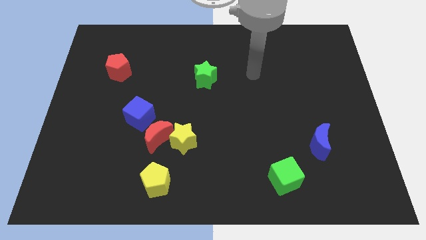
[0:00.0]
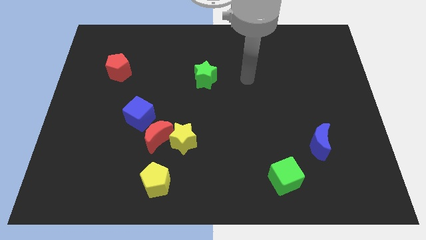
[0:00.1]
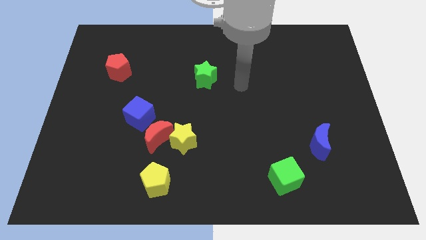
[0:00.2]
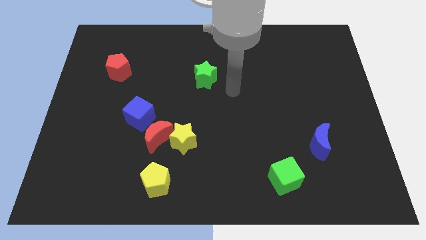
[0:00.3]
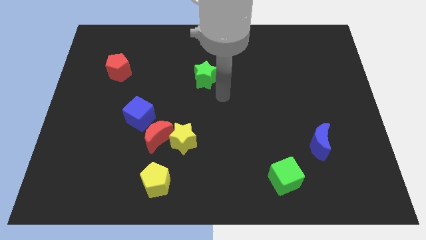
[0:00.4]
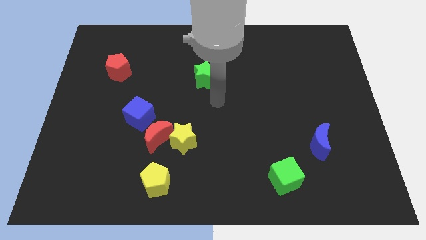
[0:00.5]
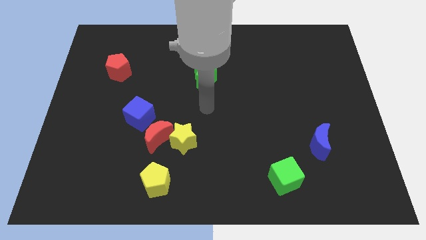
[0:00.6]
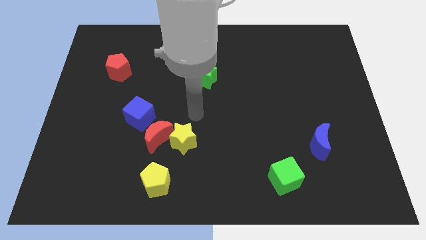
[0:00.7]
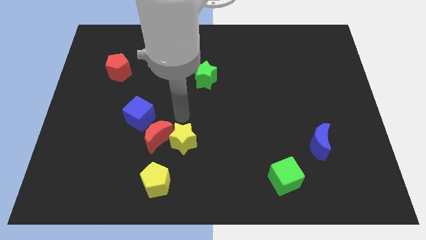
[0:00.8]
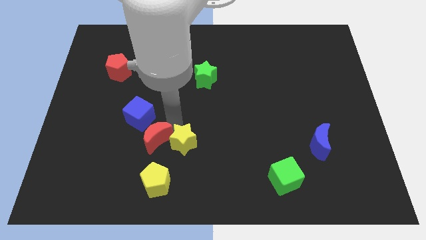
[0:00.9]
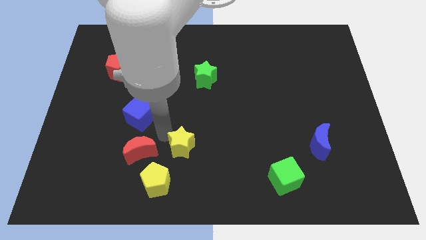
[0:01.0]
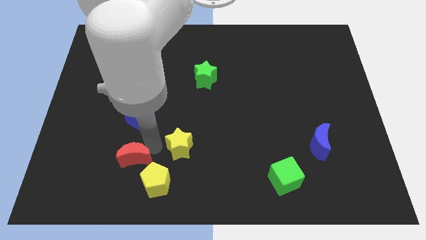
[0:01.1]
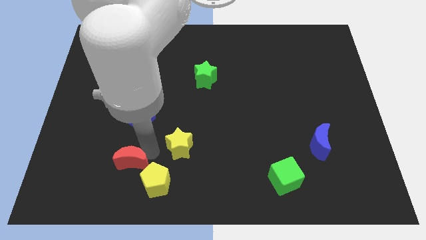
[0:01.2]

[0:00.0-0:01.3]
move the yellow star away from the red moon

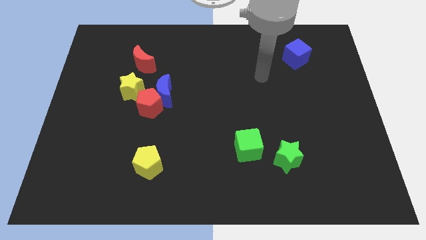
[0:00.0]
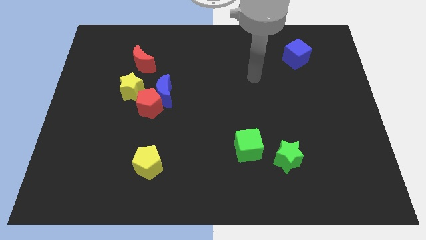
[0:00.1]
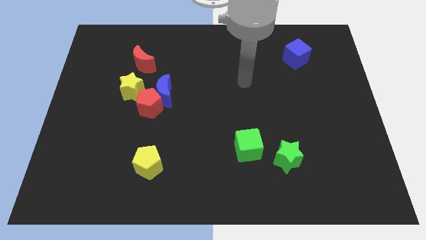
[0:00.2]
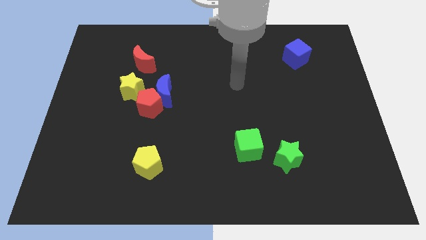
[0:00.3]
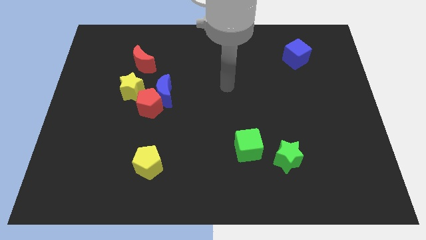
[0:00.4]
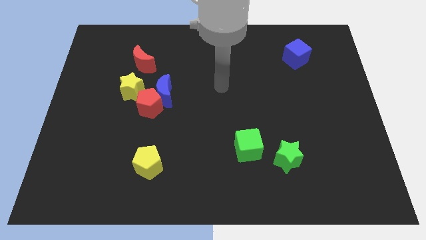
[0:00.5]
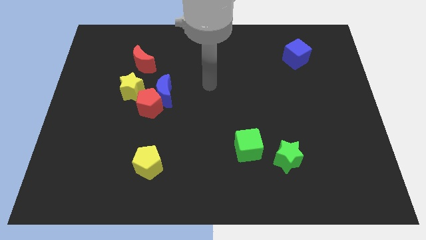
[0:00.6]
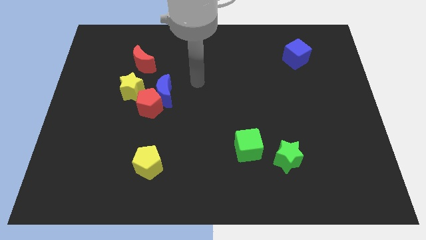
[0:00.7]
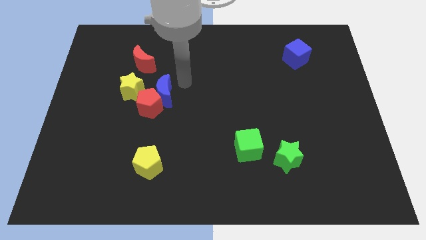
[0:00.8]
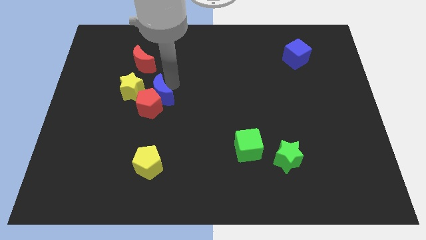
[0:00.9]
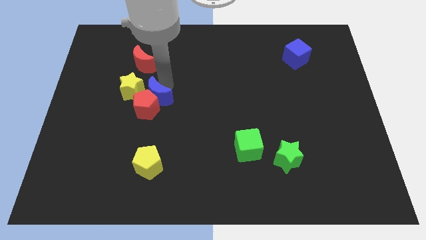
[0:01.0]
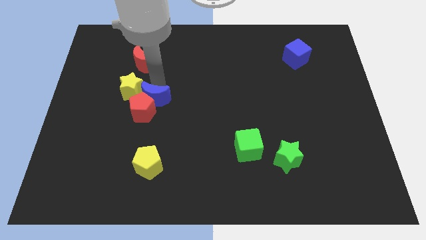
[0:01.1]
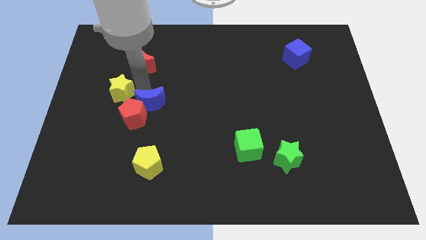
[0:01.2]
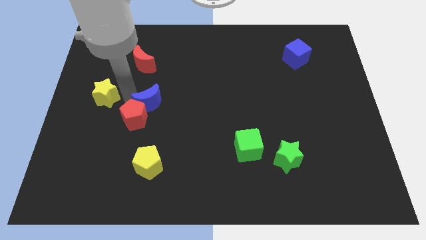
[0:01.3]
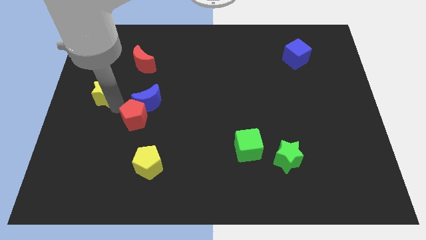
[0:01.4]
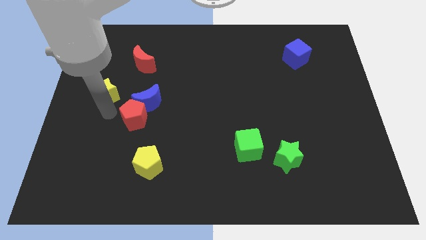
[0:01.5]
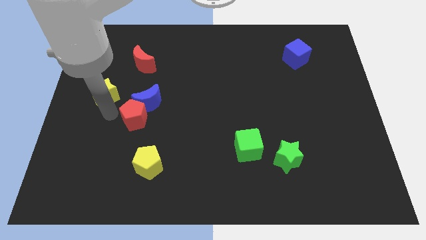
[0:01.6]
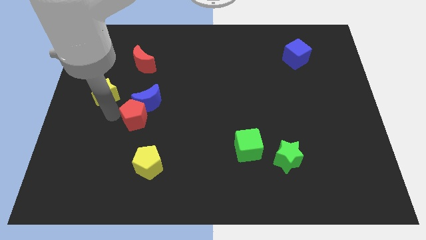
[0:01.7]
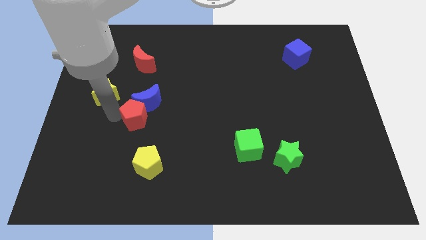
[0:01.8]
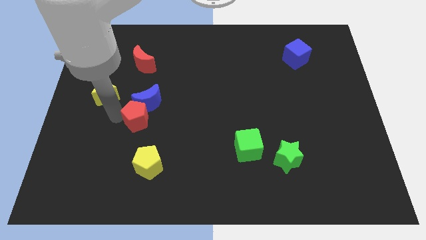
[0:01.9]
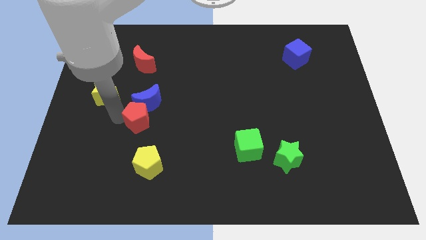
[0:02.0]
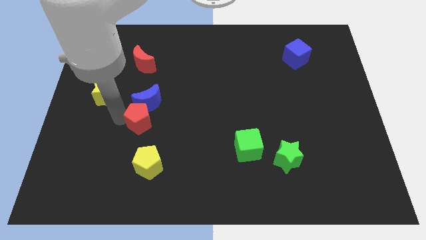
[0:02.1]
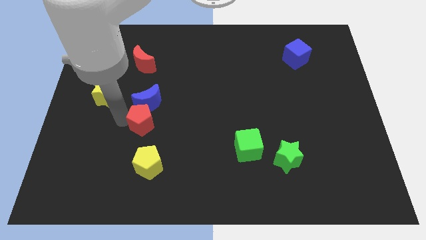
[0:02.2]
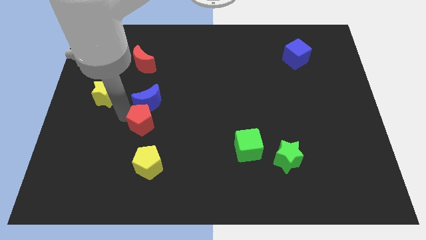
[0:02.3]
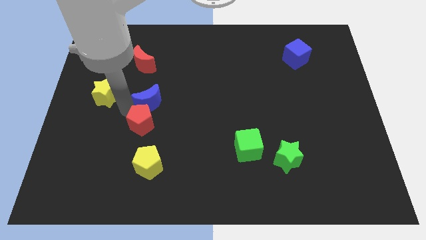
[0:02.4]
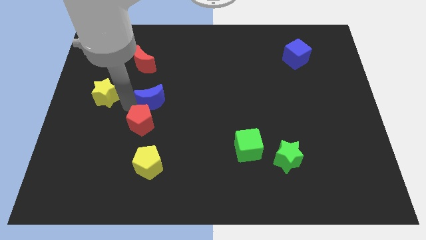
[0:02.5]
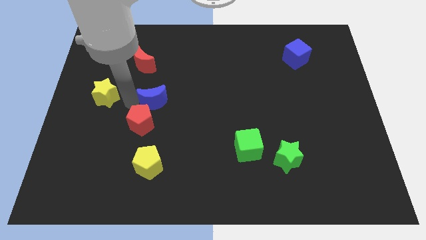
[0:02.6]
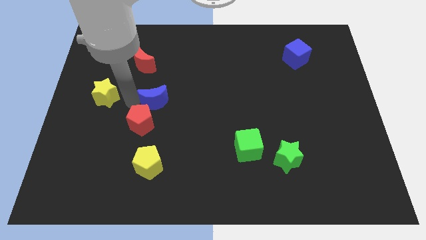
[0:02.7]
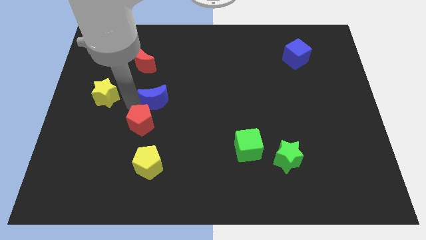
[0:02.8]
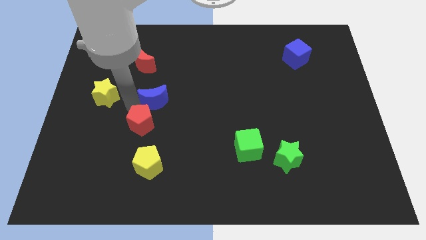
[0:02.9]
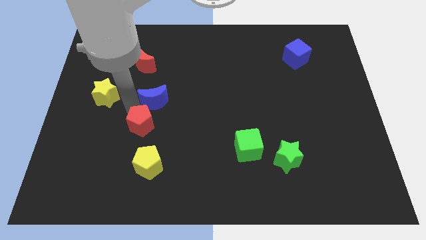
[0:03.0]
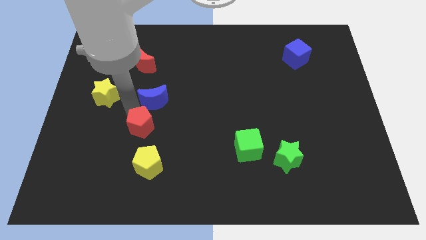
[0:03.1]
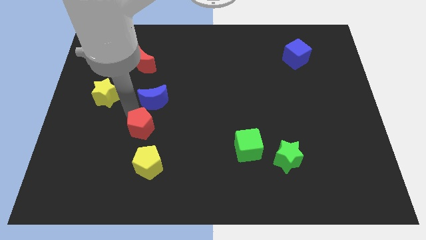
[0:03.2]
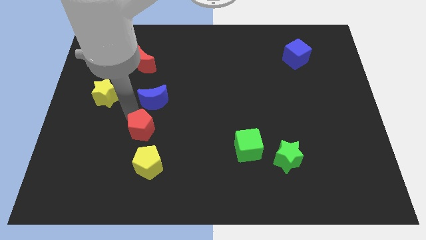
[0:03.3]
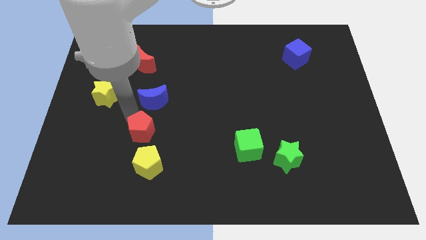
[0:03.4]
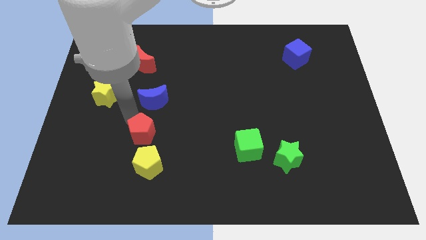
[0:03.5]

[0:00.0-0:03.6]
pull the red pentagon apart from the blue moon and yellow star

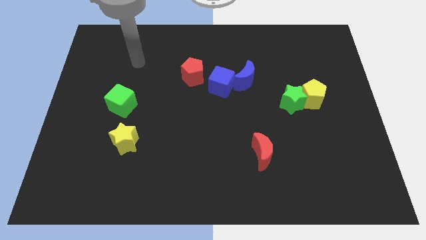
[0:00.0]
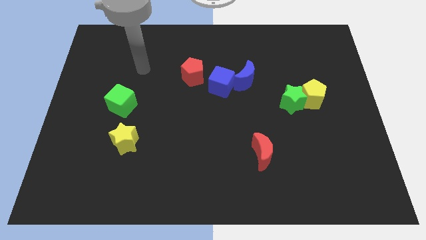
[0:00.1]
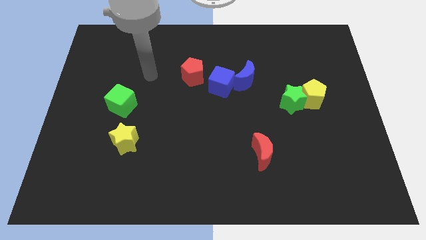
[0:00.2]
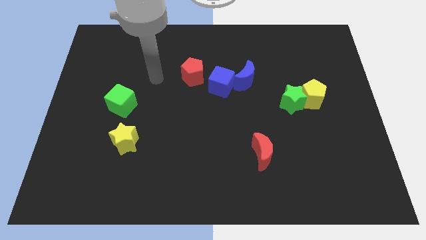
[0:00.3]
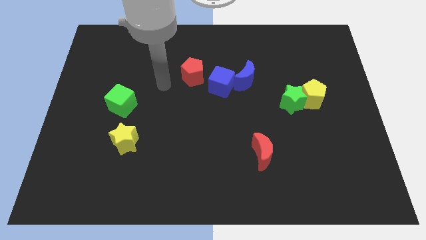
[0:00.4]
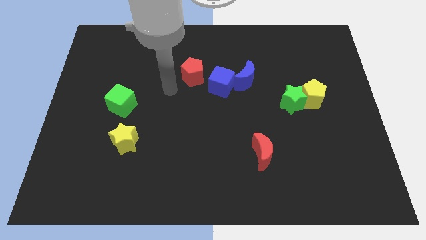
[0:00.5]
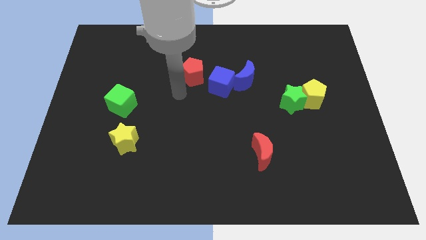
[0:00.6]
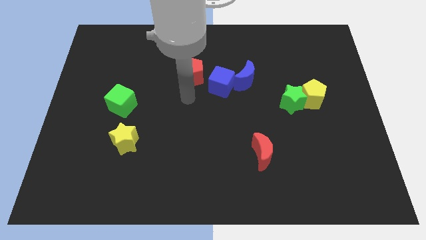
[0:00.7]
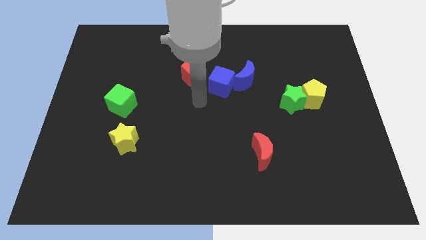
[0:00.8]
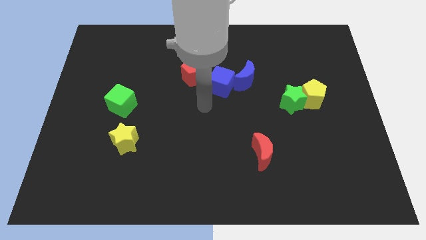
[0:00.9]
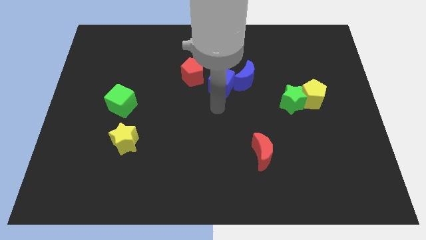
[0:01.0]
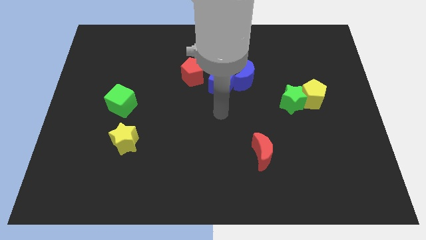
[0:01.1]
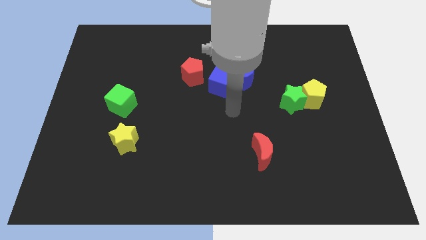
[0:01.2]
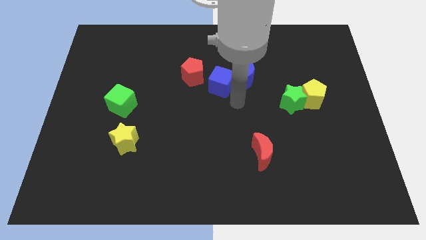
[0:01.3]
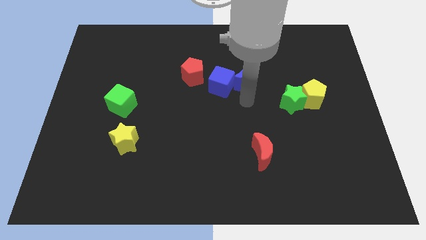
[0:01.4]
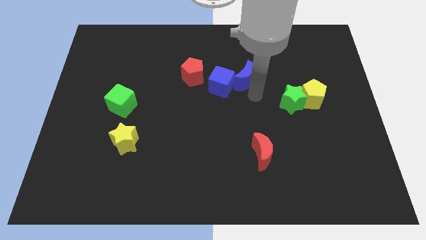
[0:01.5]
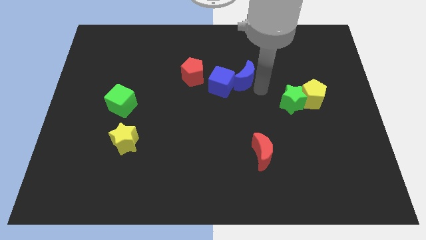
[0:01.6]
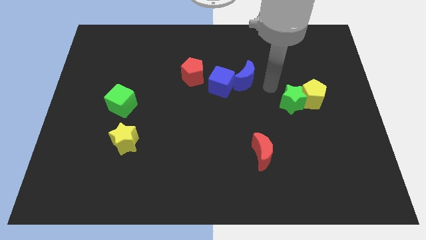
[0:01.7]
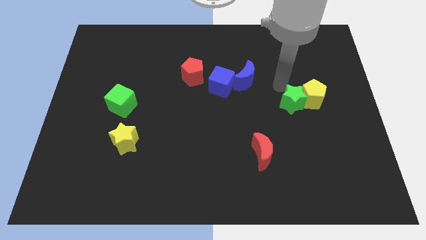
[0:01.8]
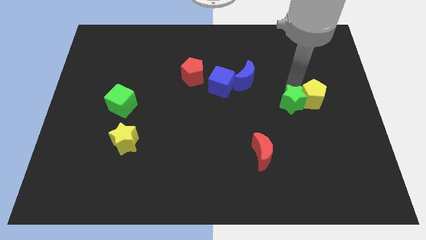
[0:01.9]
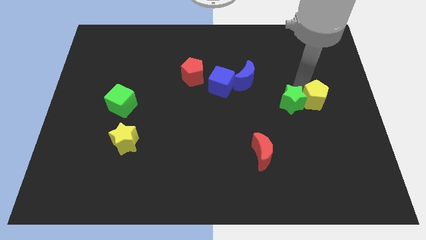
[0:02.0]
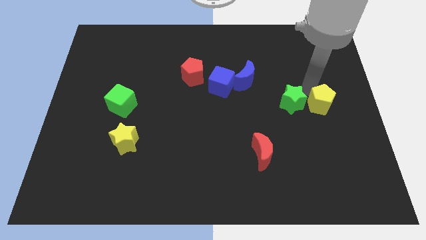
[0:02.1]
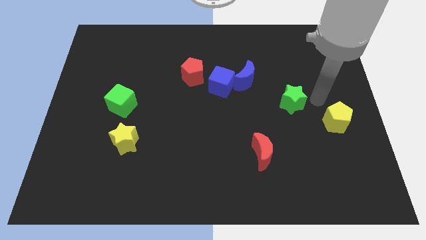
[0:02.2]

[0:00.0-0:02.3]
separate the green star from the yellow pentagon

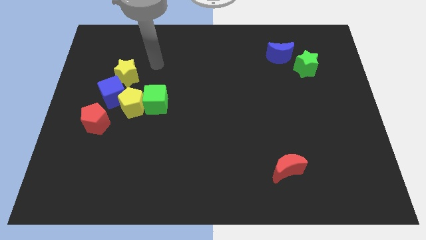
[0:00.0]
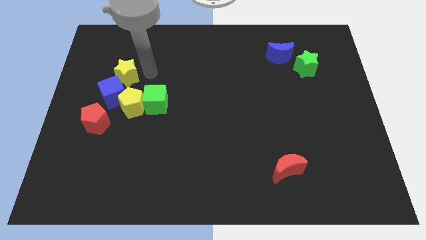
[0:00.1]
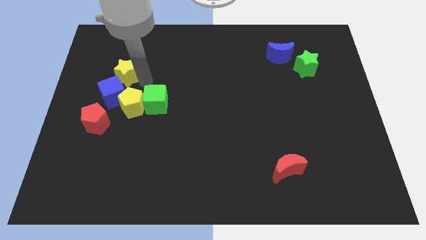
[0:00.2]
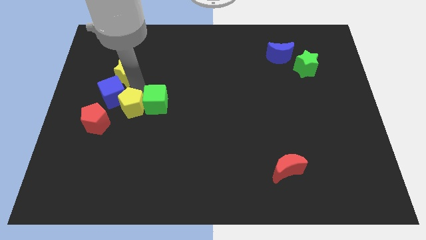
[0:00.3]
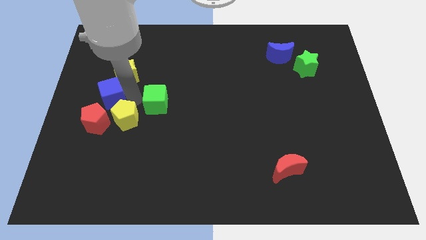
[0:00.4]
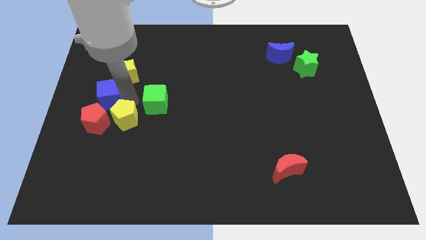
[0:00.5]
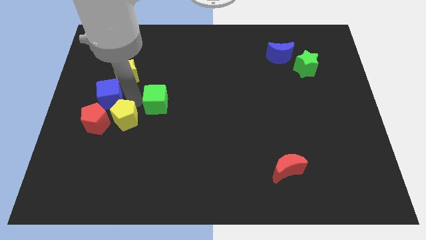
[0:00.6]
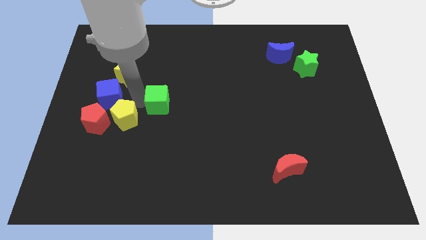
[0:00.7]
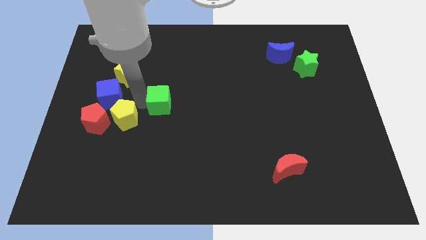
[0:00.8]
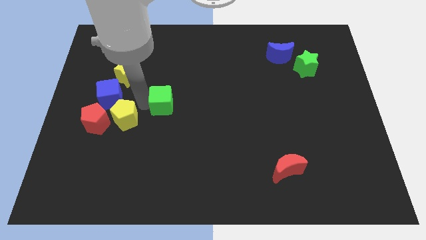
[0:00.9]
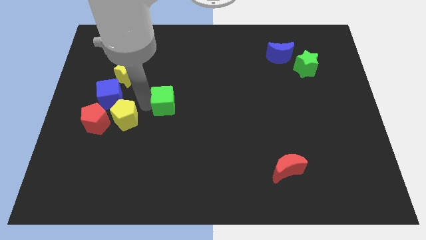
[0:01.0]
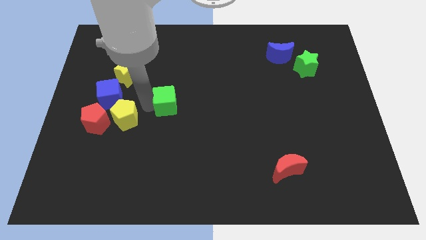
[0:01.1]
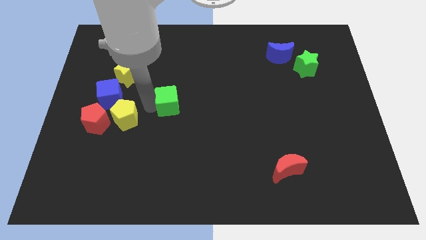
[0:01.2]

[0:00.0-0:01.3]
separate the green cube from the yellow pentagon

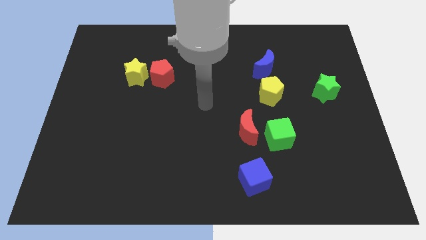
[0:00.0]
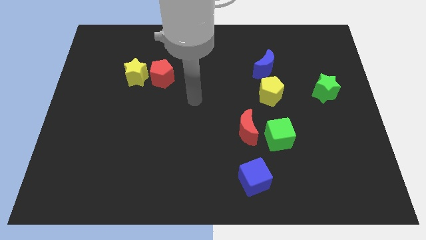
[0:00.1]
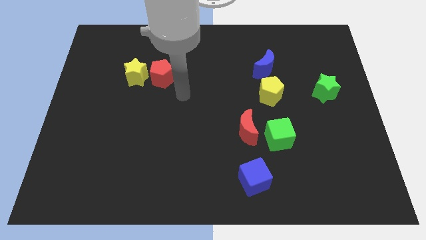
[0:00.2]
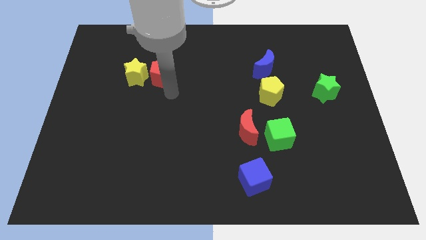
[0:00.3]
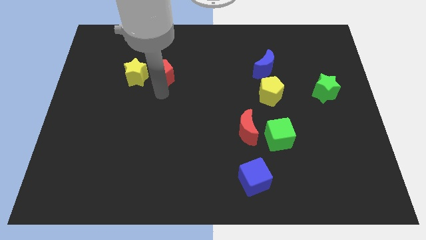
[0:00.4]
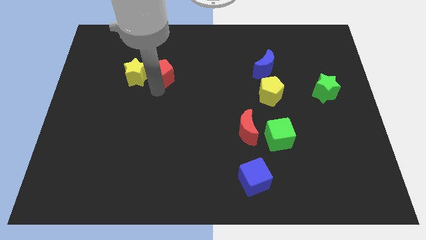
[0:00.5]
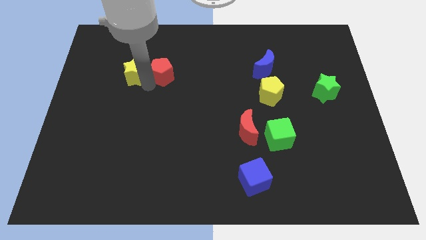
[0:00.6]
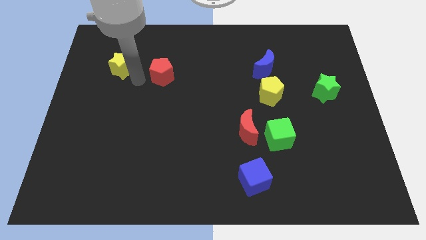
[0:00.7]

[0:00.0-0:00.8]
separate the red pentagon from the yellow star
